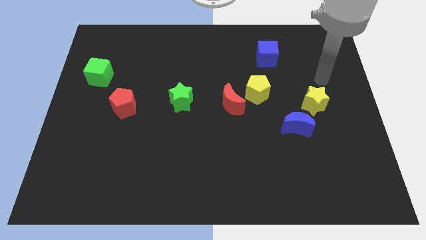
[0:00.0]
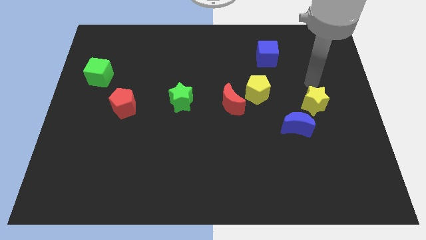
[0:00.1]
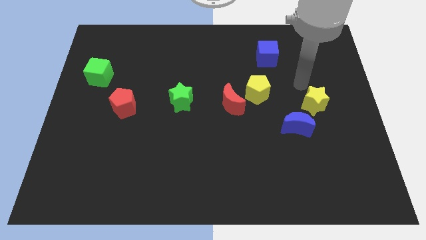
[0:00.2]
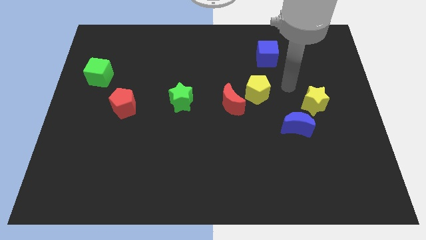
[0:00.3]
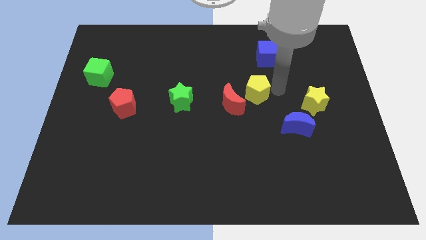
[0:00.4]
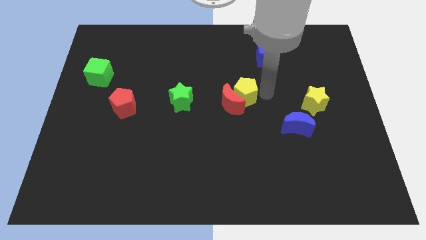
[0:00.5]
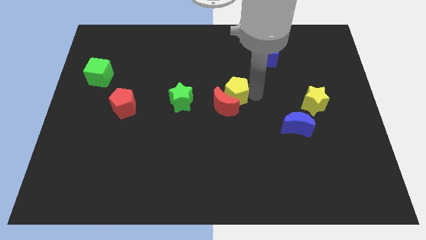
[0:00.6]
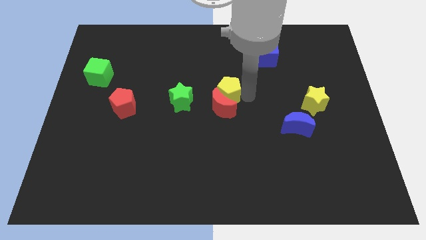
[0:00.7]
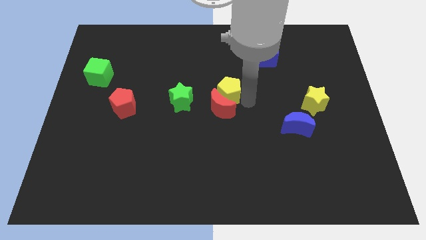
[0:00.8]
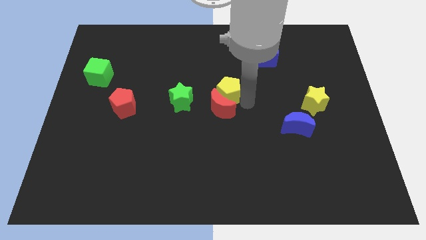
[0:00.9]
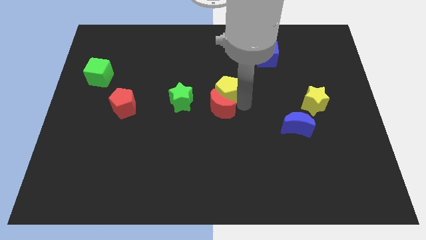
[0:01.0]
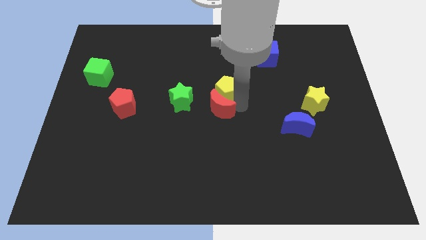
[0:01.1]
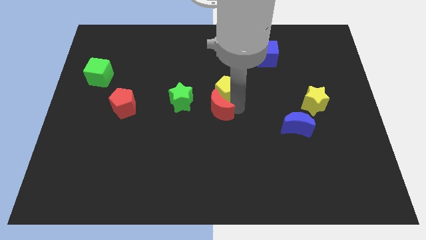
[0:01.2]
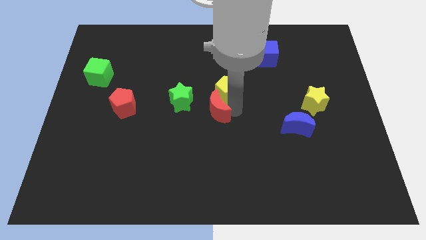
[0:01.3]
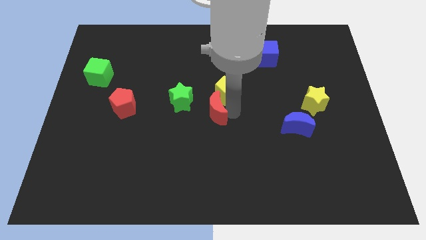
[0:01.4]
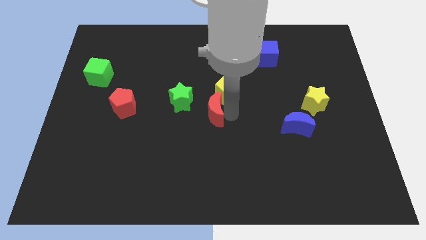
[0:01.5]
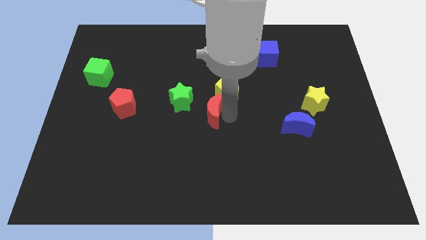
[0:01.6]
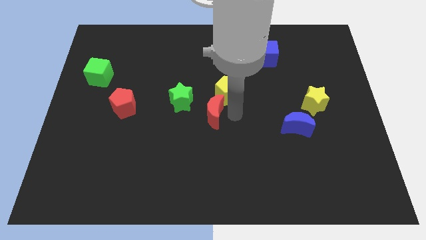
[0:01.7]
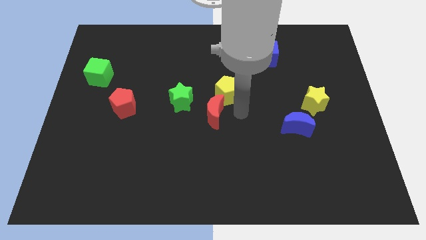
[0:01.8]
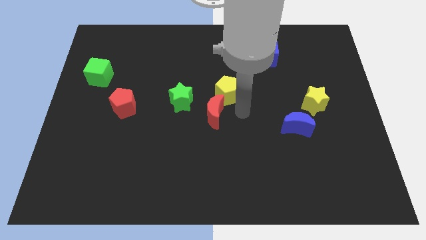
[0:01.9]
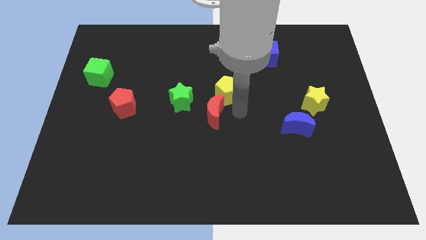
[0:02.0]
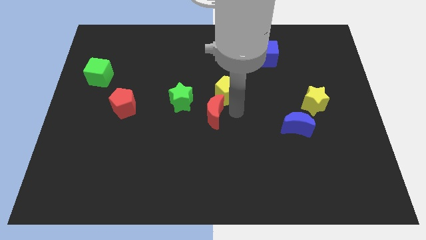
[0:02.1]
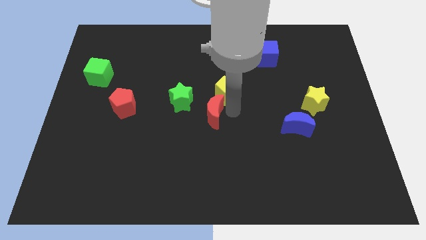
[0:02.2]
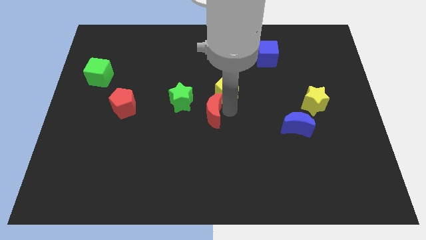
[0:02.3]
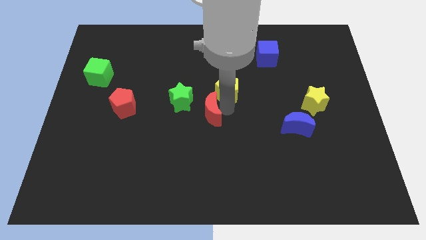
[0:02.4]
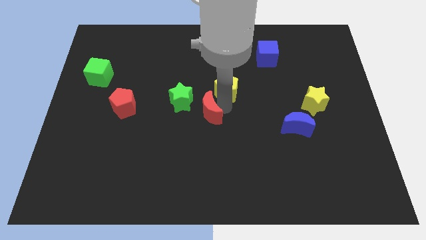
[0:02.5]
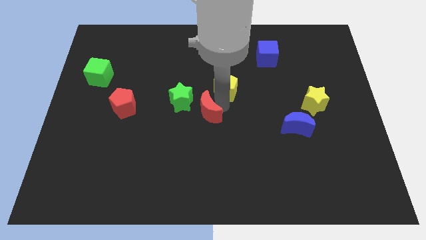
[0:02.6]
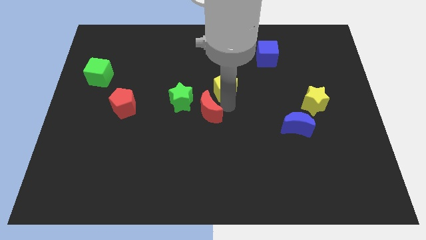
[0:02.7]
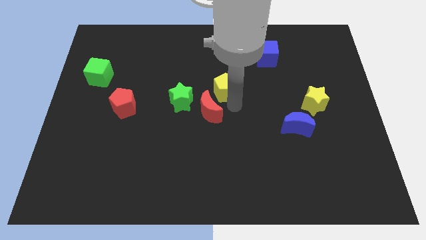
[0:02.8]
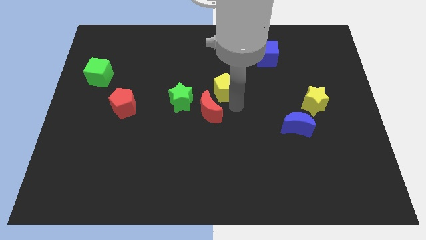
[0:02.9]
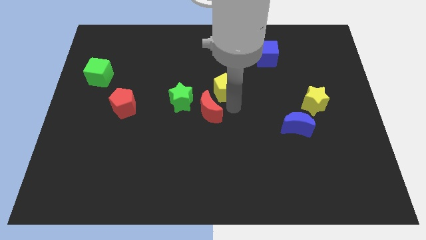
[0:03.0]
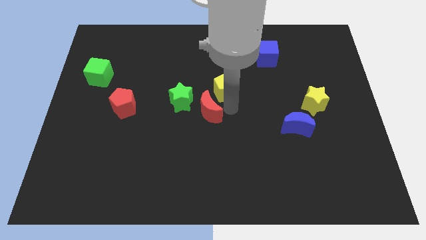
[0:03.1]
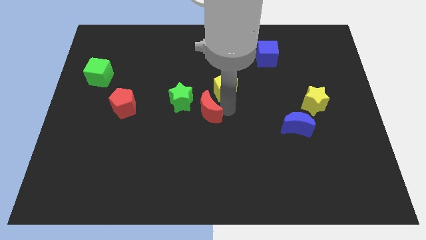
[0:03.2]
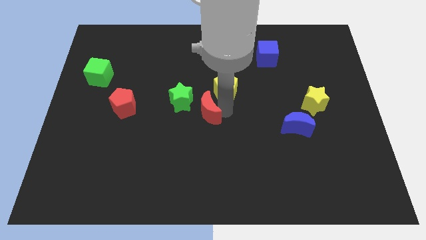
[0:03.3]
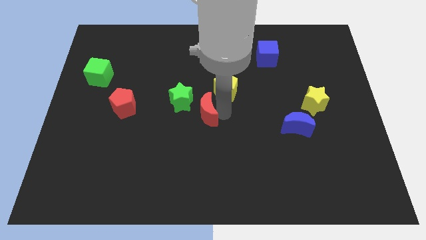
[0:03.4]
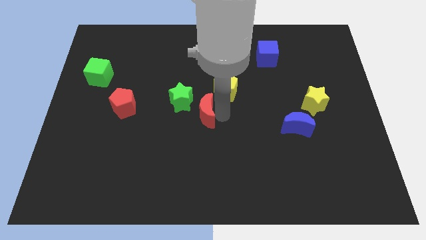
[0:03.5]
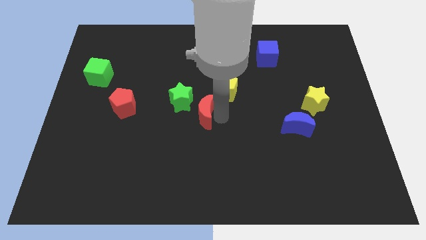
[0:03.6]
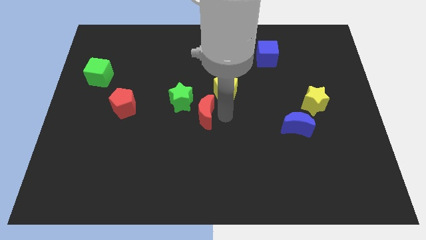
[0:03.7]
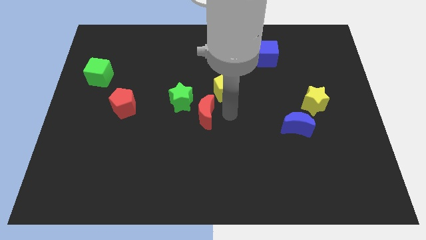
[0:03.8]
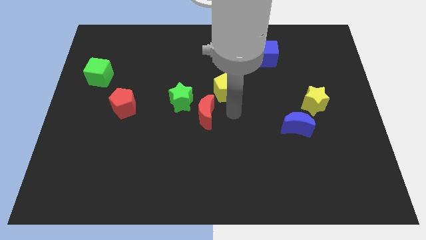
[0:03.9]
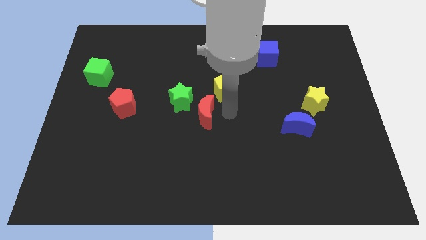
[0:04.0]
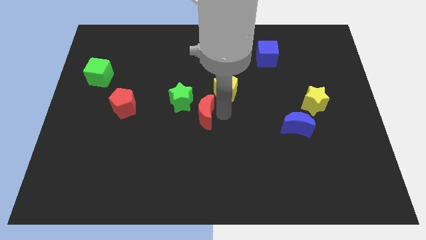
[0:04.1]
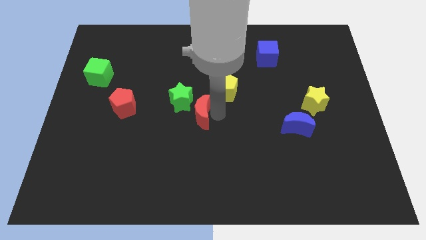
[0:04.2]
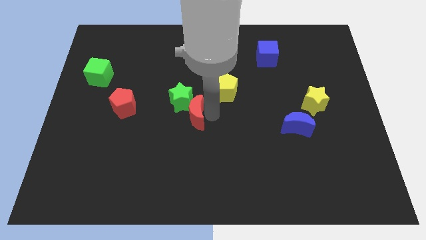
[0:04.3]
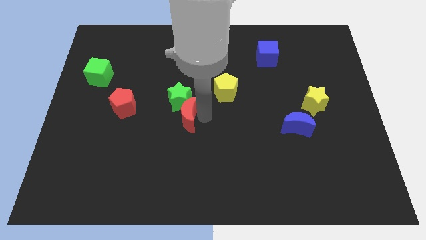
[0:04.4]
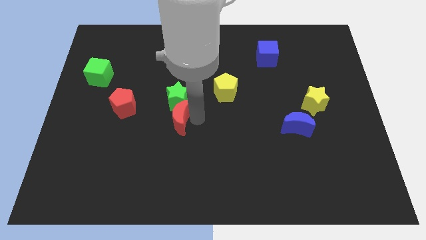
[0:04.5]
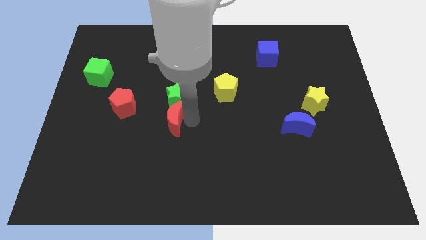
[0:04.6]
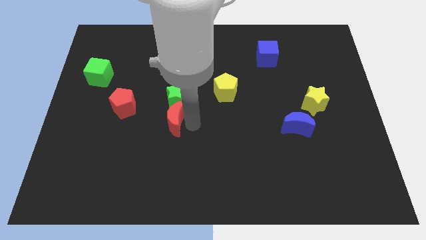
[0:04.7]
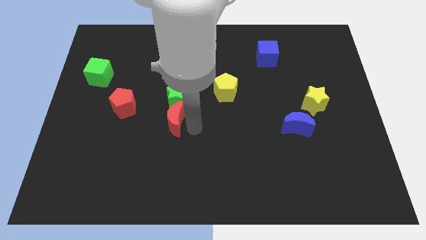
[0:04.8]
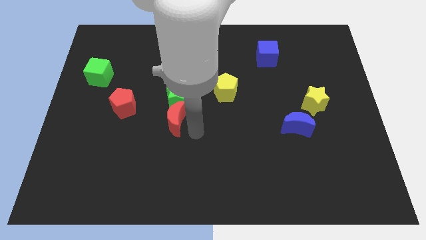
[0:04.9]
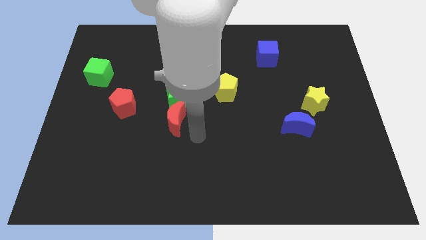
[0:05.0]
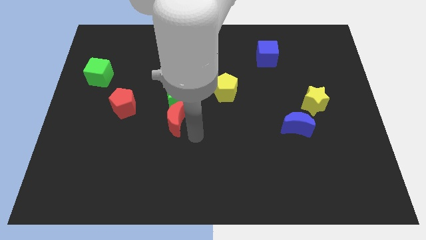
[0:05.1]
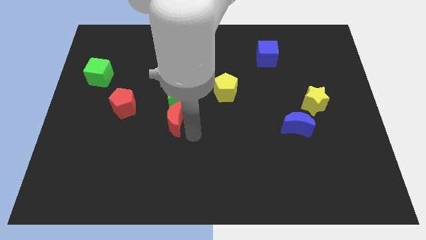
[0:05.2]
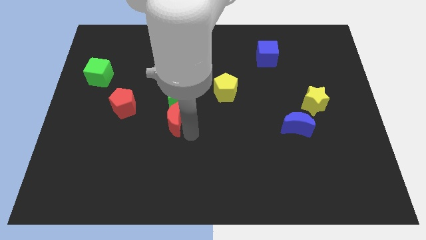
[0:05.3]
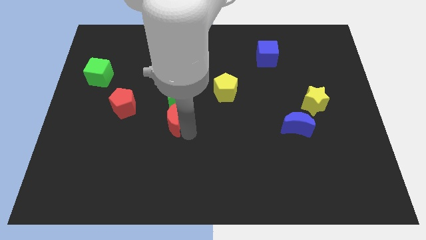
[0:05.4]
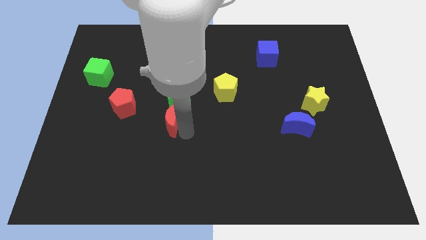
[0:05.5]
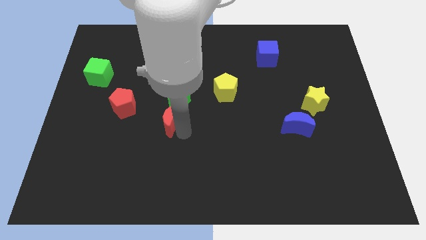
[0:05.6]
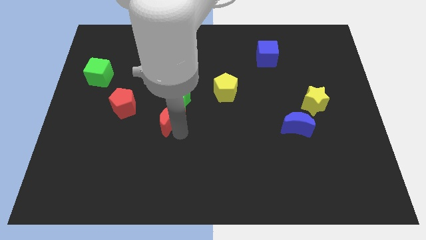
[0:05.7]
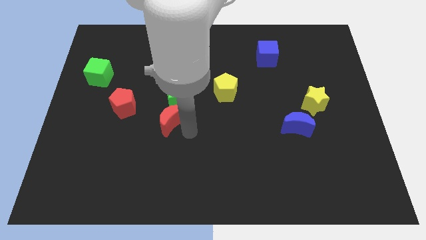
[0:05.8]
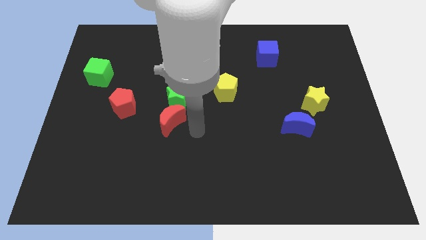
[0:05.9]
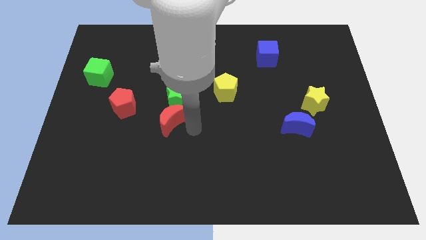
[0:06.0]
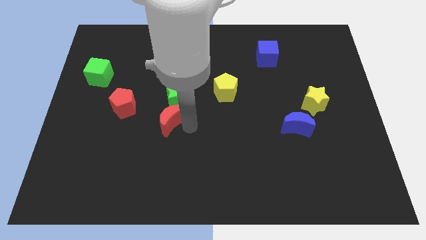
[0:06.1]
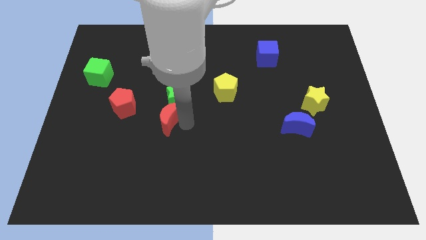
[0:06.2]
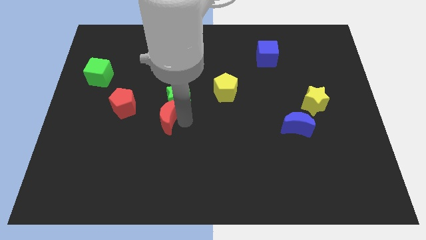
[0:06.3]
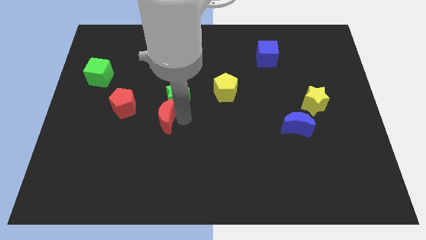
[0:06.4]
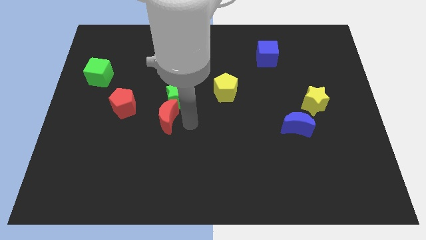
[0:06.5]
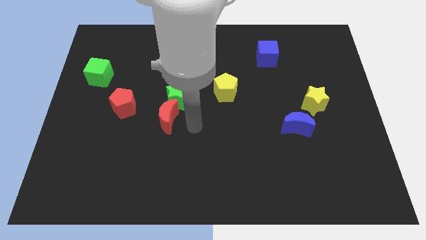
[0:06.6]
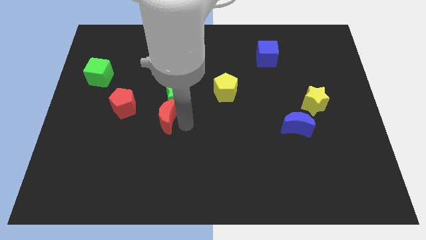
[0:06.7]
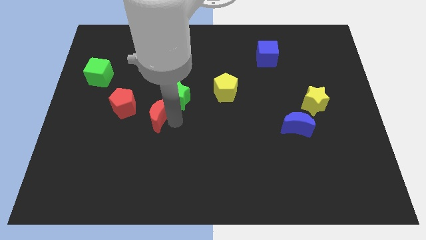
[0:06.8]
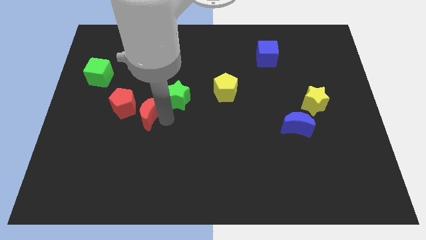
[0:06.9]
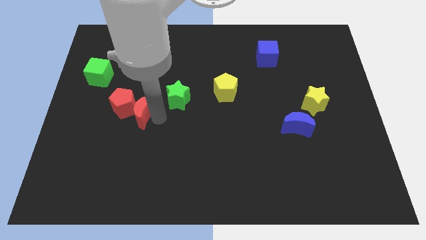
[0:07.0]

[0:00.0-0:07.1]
push the red moon close to the red pentagon

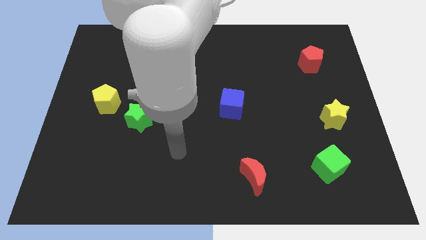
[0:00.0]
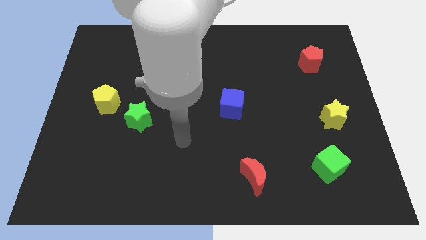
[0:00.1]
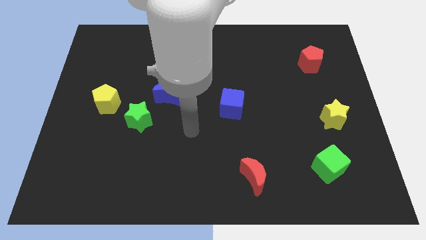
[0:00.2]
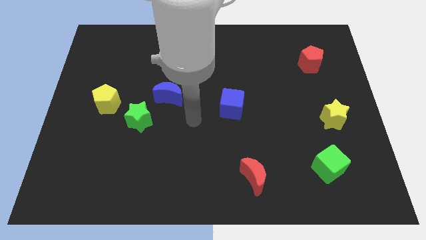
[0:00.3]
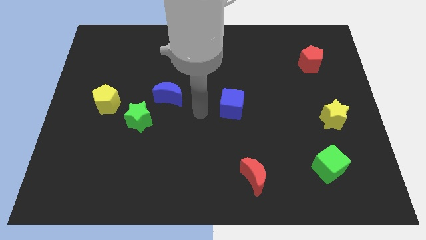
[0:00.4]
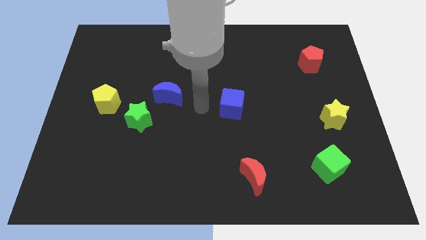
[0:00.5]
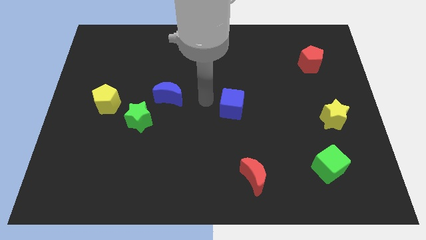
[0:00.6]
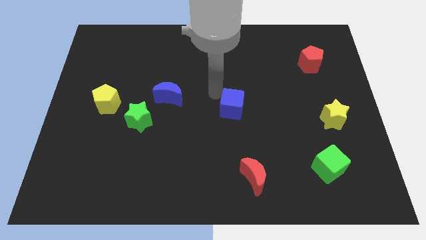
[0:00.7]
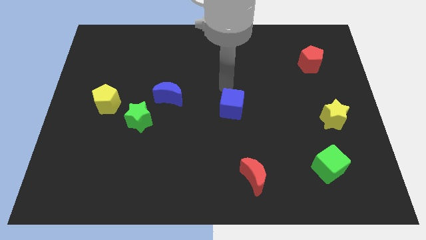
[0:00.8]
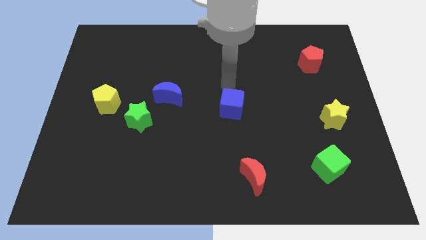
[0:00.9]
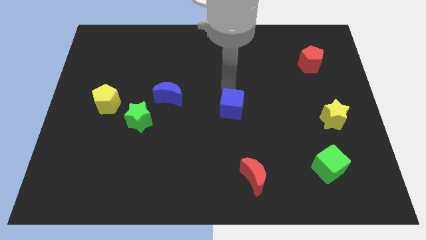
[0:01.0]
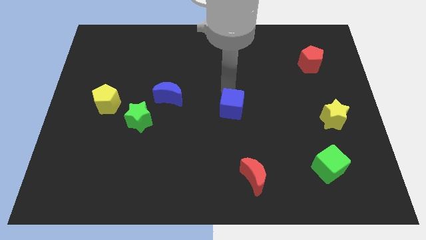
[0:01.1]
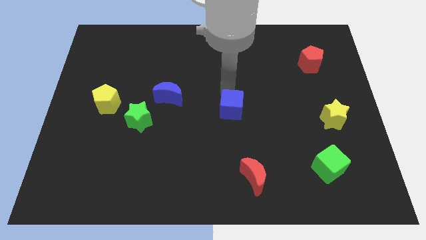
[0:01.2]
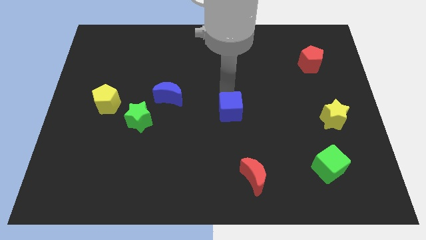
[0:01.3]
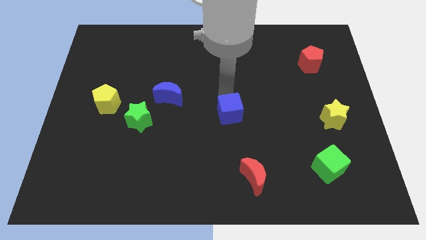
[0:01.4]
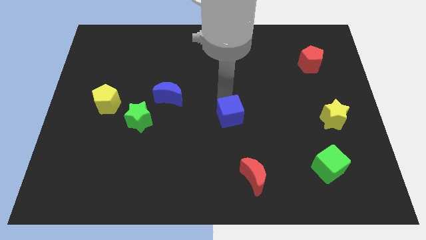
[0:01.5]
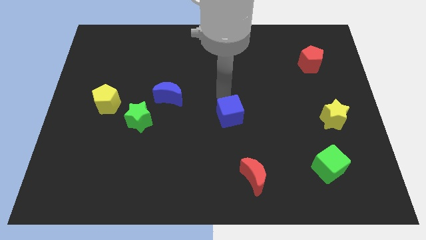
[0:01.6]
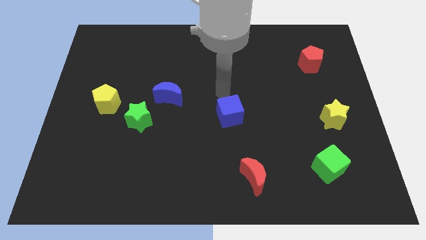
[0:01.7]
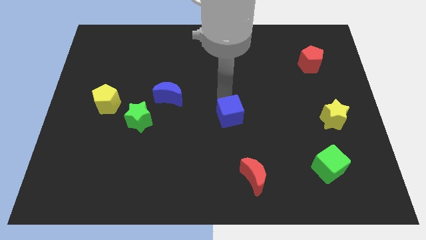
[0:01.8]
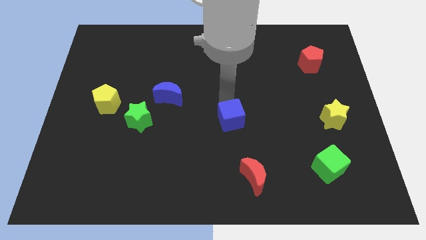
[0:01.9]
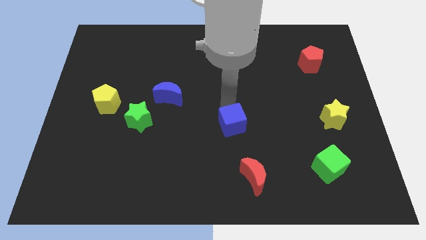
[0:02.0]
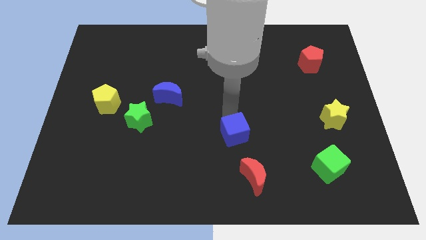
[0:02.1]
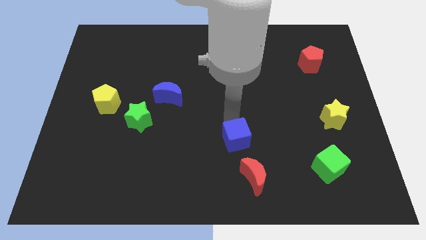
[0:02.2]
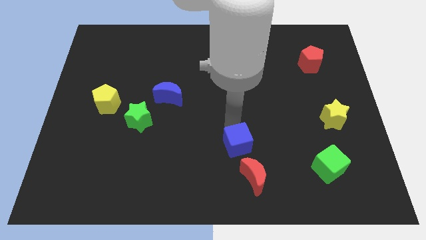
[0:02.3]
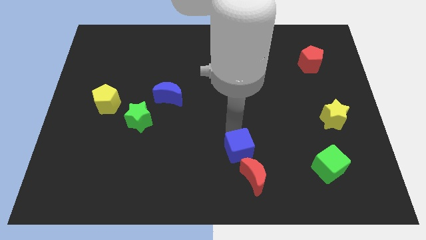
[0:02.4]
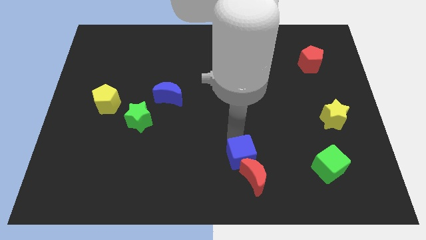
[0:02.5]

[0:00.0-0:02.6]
move the blue cube next to the red moon
